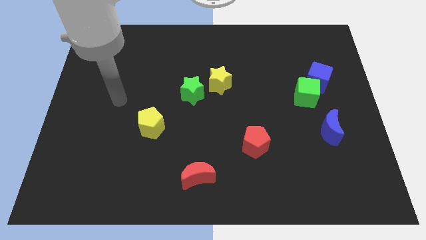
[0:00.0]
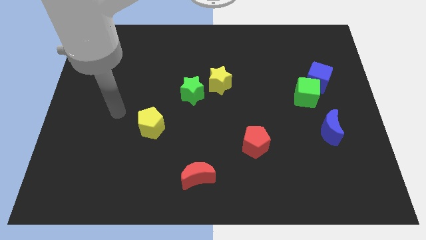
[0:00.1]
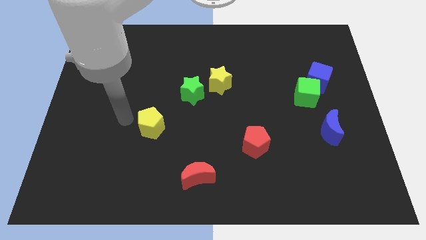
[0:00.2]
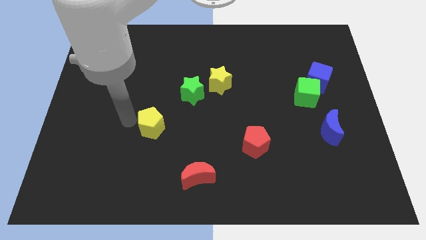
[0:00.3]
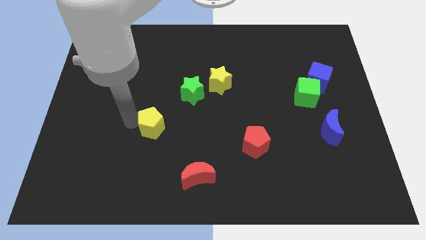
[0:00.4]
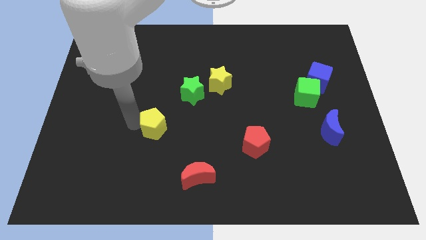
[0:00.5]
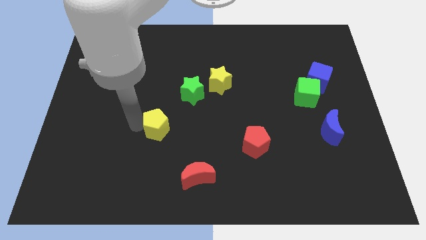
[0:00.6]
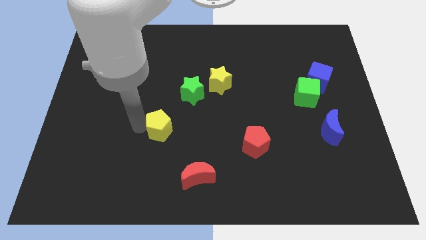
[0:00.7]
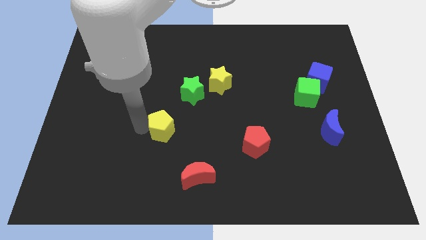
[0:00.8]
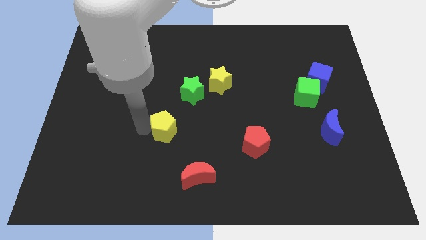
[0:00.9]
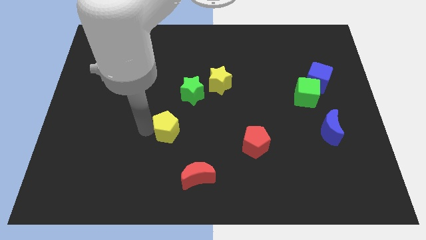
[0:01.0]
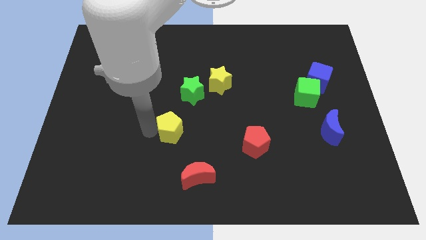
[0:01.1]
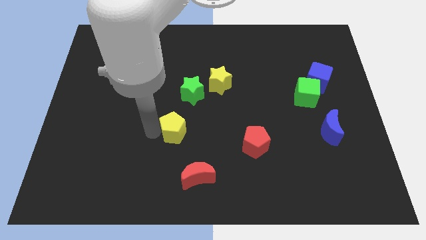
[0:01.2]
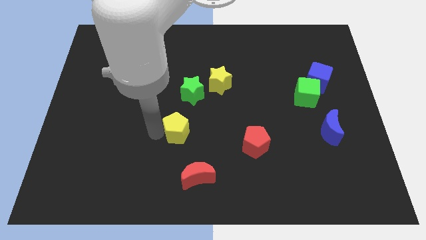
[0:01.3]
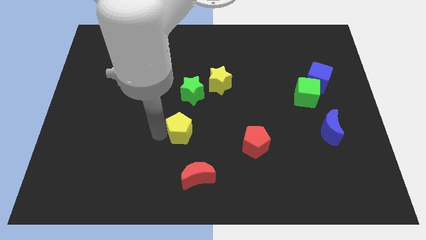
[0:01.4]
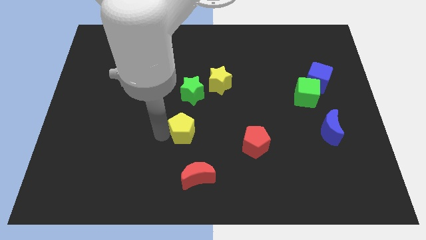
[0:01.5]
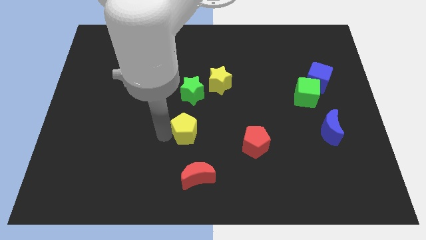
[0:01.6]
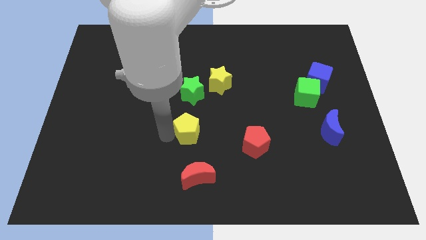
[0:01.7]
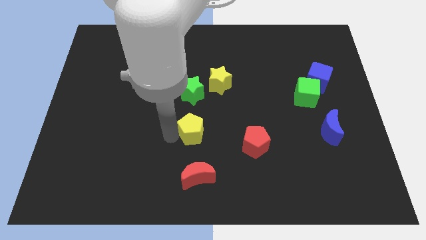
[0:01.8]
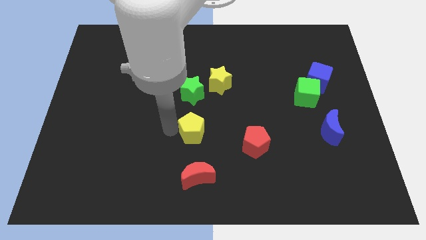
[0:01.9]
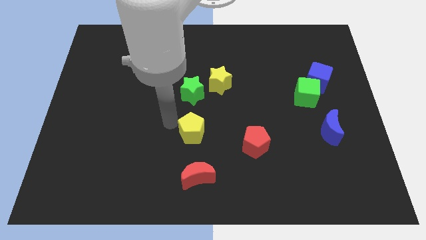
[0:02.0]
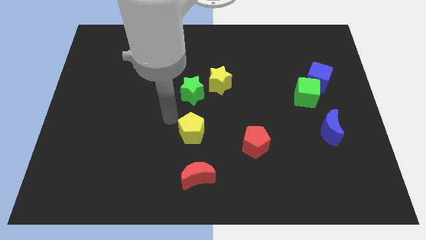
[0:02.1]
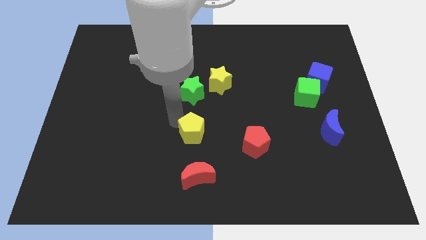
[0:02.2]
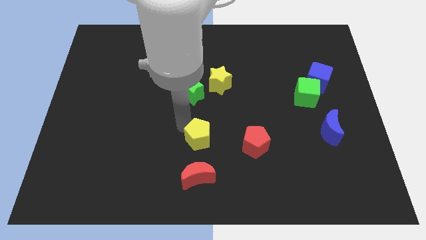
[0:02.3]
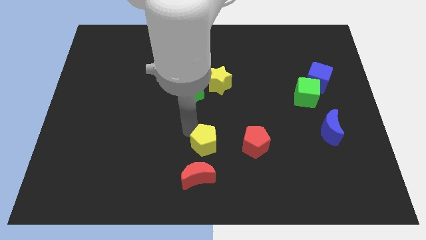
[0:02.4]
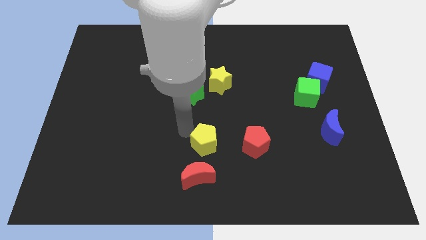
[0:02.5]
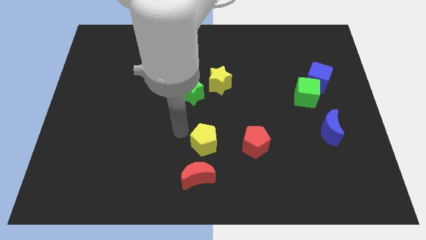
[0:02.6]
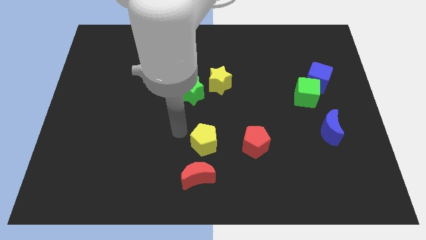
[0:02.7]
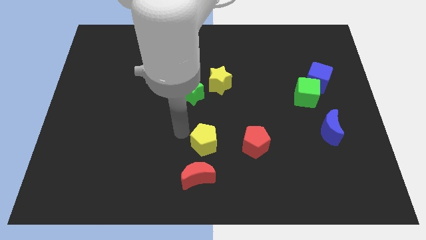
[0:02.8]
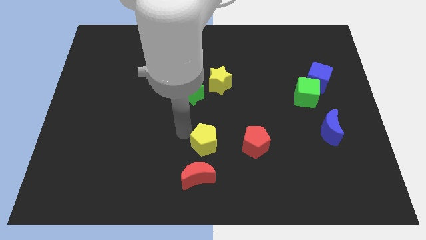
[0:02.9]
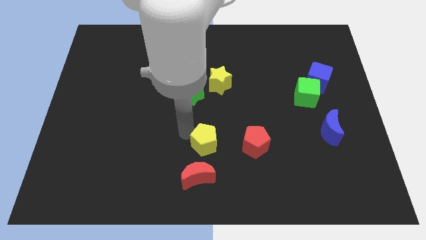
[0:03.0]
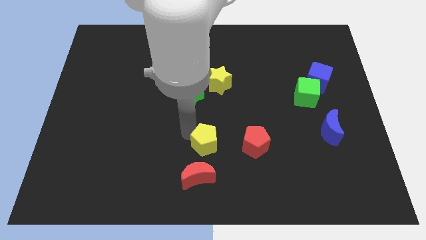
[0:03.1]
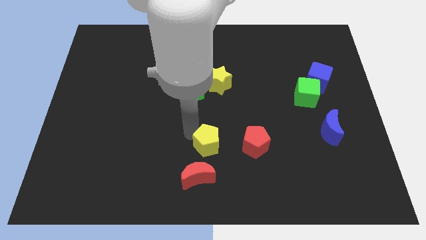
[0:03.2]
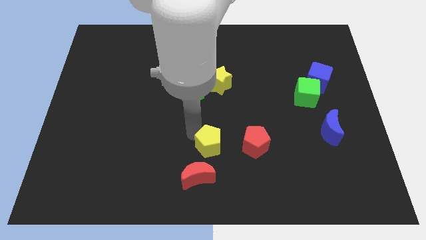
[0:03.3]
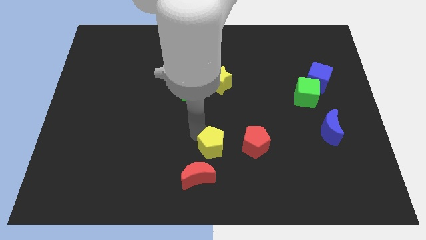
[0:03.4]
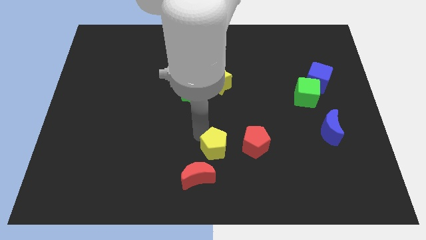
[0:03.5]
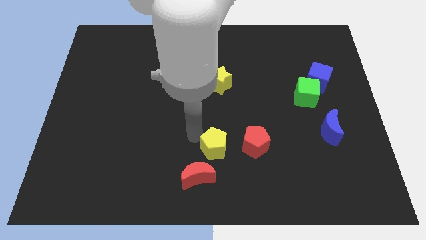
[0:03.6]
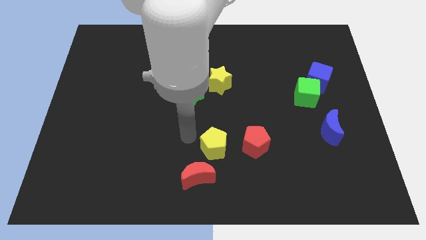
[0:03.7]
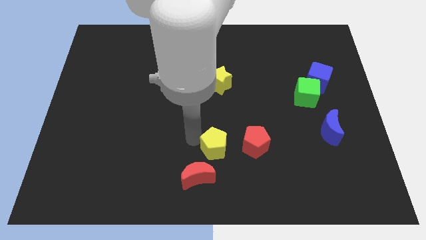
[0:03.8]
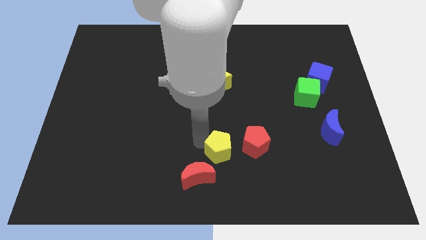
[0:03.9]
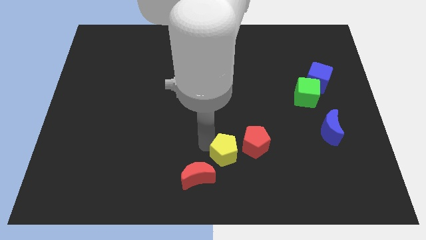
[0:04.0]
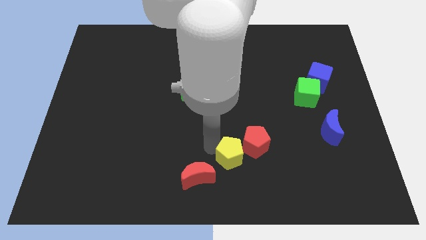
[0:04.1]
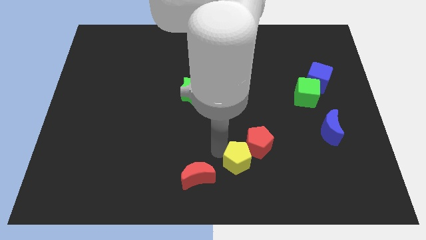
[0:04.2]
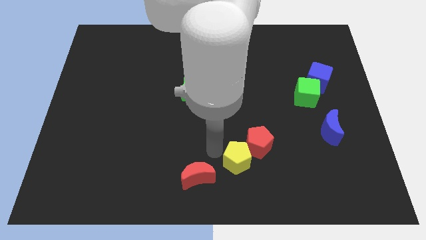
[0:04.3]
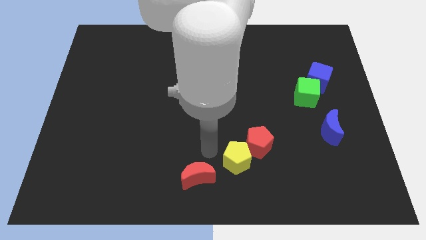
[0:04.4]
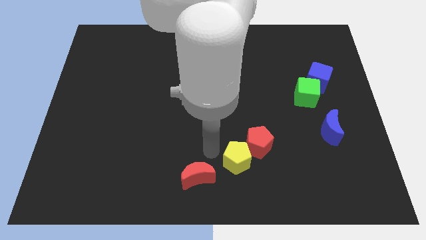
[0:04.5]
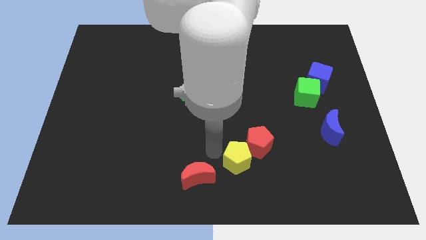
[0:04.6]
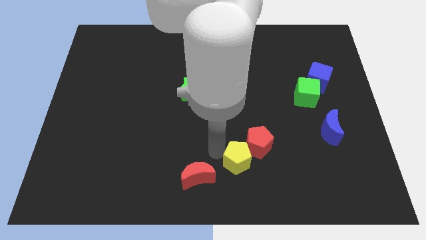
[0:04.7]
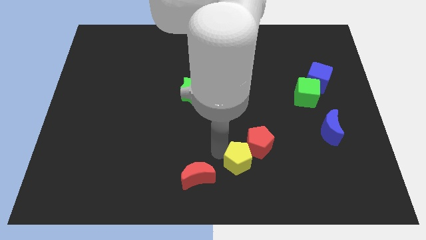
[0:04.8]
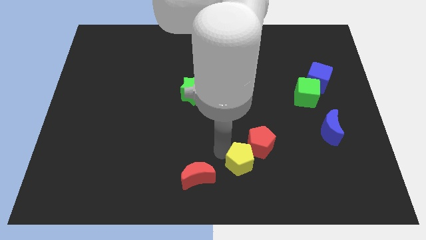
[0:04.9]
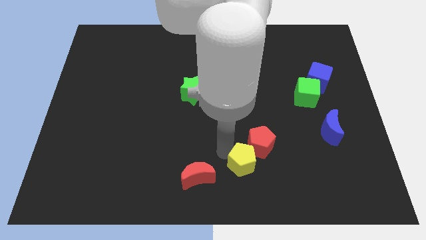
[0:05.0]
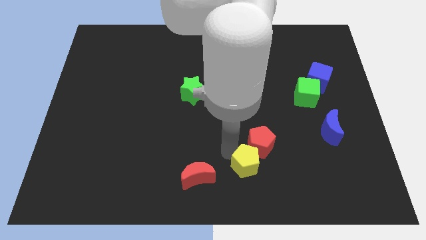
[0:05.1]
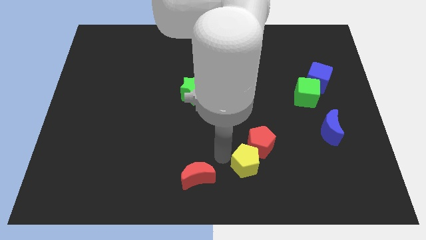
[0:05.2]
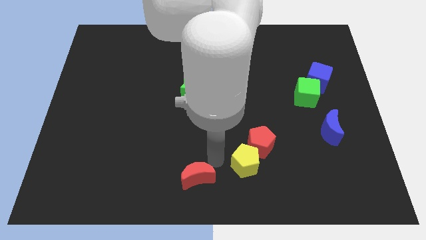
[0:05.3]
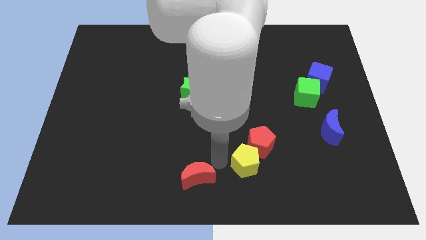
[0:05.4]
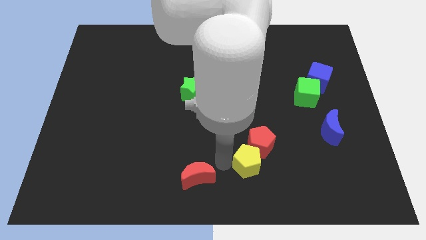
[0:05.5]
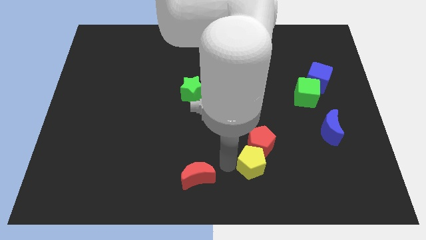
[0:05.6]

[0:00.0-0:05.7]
push the yellow pentagon to the bottom right side of the red pentagon

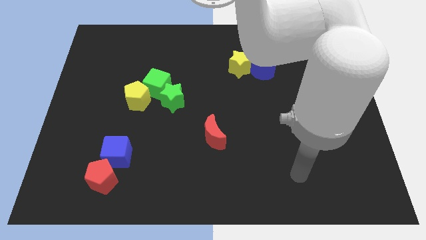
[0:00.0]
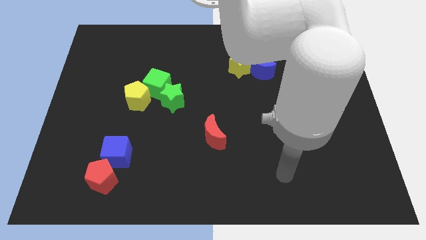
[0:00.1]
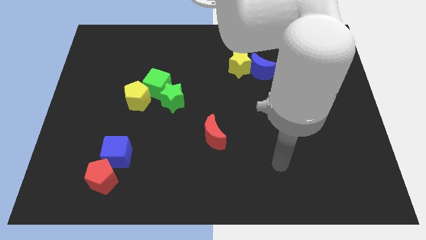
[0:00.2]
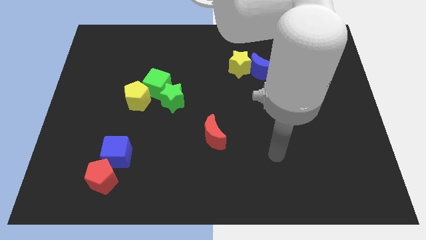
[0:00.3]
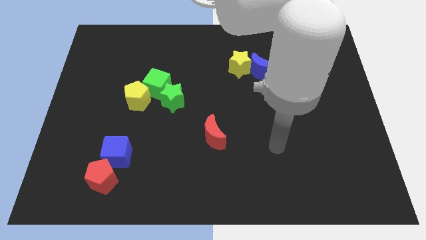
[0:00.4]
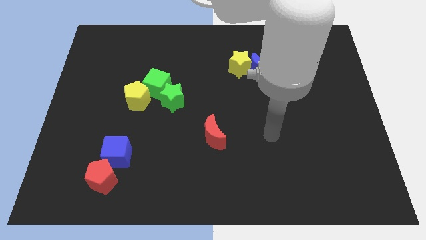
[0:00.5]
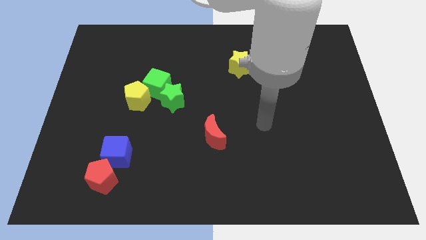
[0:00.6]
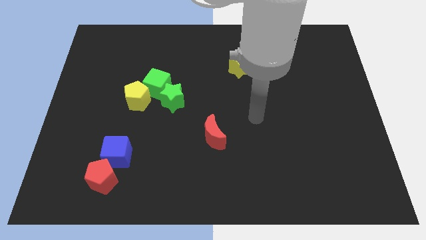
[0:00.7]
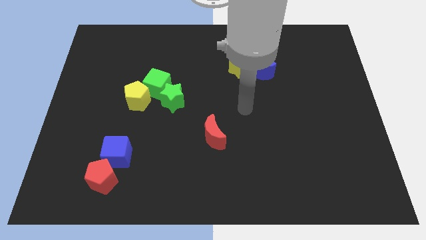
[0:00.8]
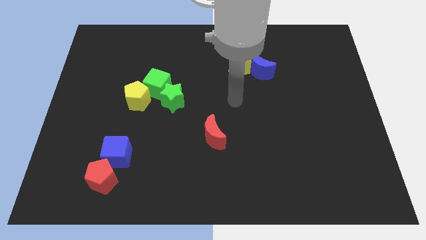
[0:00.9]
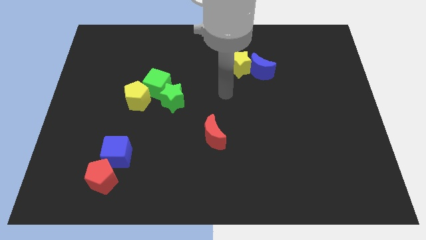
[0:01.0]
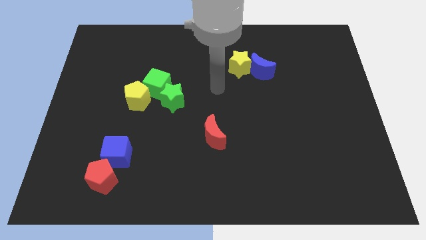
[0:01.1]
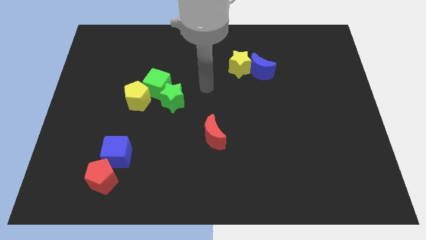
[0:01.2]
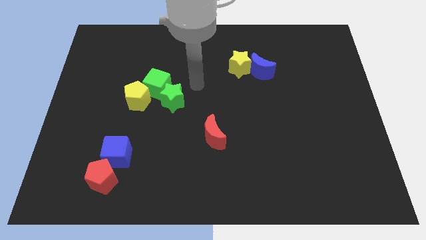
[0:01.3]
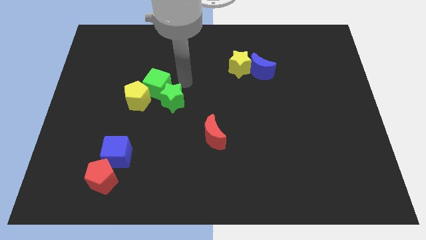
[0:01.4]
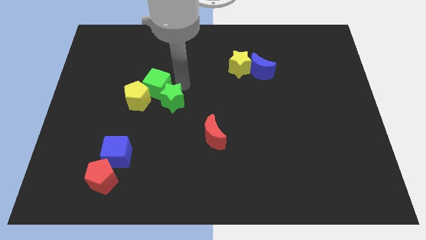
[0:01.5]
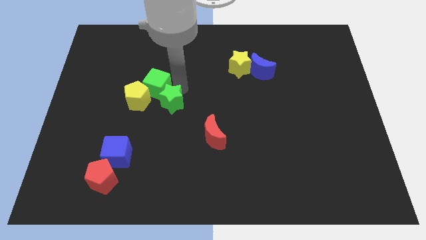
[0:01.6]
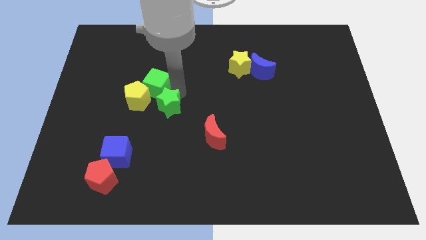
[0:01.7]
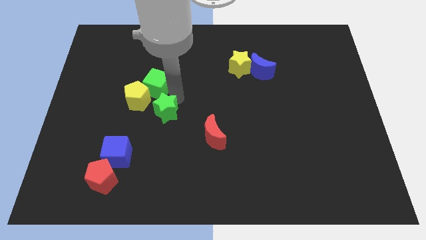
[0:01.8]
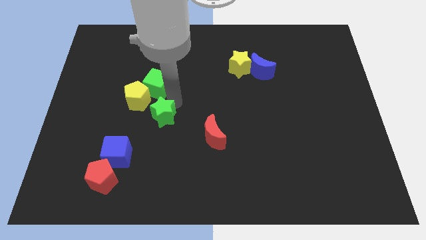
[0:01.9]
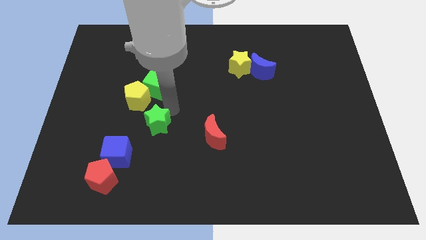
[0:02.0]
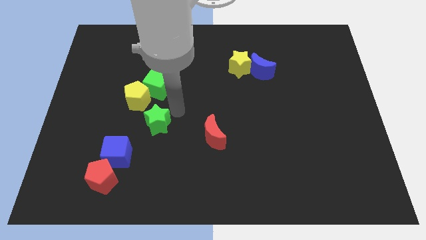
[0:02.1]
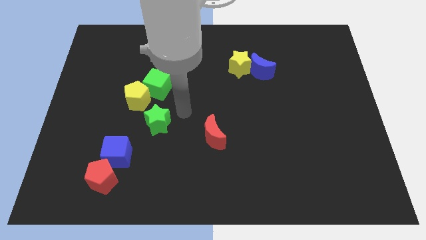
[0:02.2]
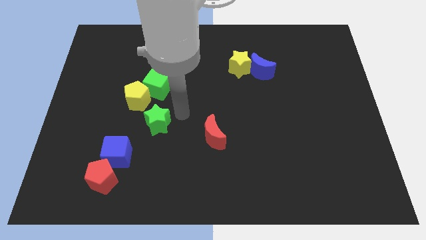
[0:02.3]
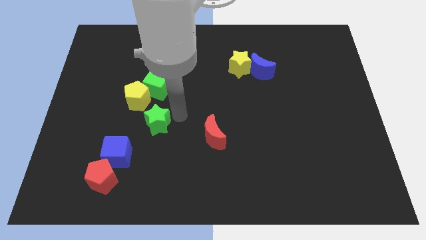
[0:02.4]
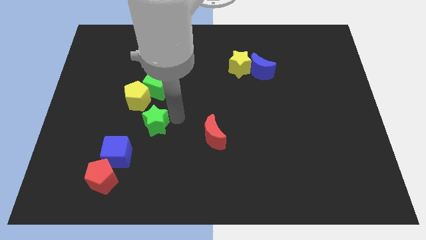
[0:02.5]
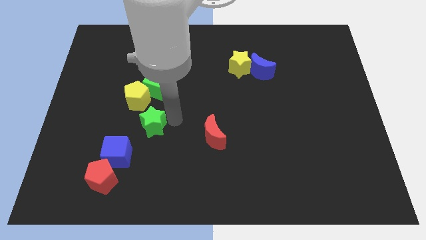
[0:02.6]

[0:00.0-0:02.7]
move the green star to the bottom side of the yellow pentagon
